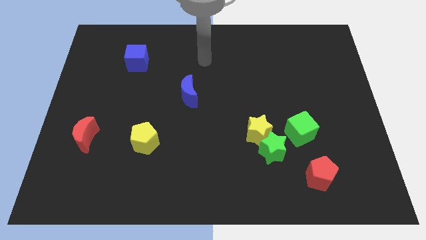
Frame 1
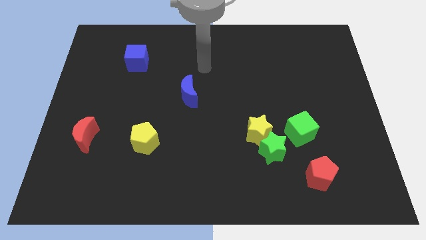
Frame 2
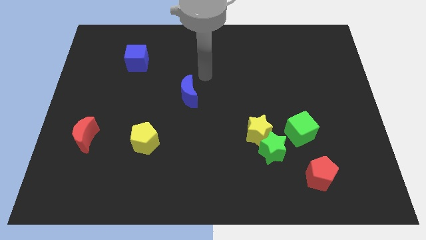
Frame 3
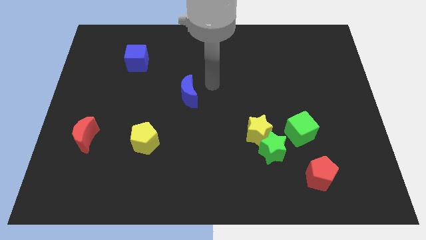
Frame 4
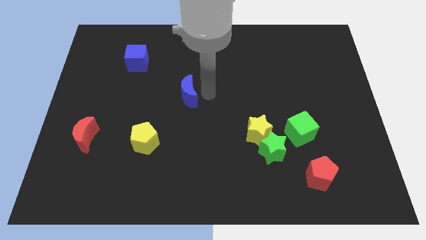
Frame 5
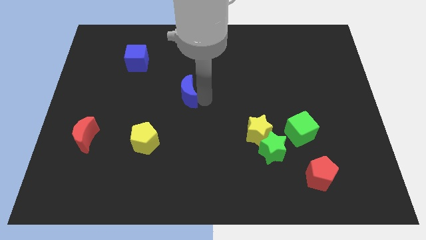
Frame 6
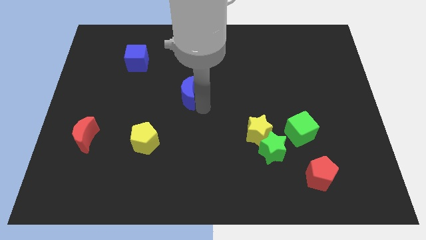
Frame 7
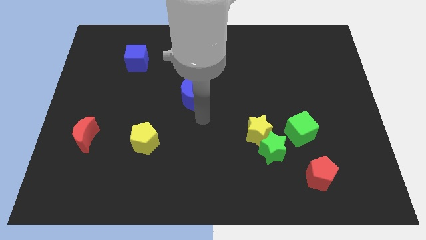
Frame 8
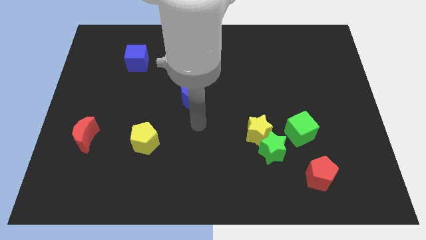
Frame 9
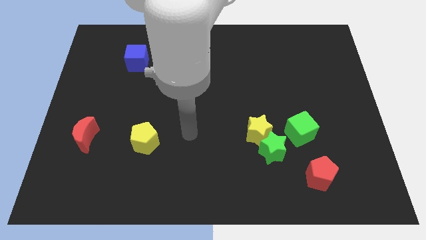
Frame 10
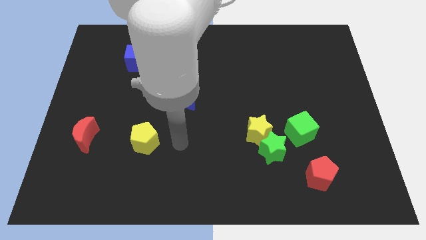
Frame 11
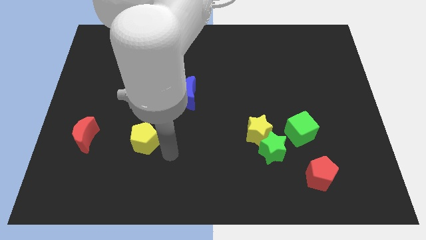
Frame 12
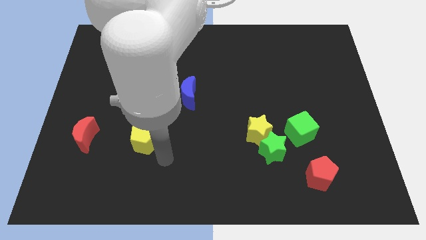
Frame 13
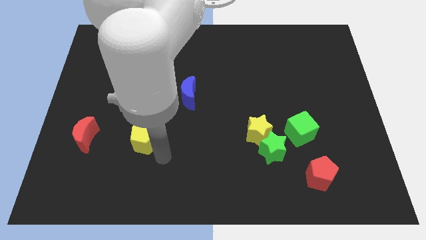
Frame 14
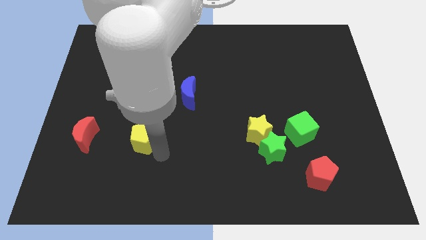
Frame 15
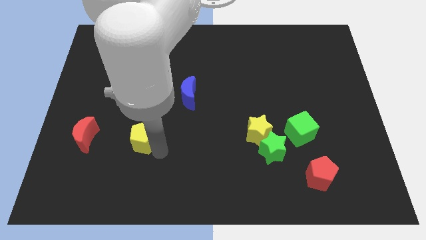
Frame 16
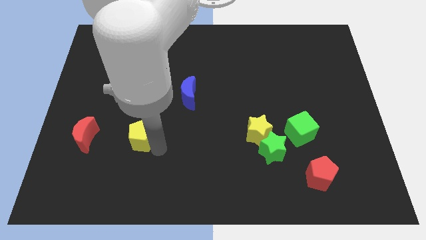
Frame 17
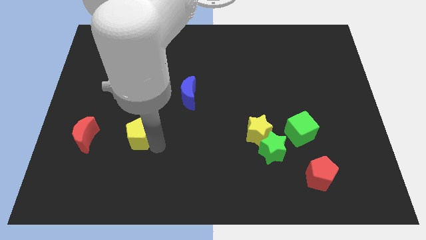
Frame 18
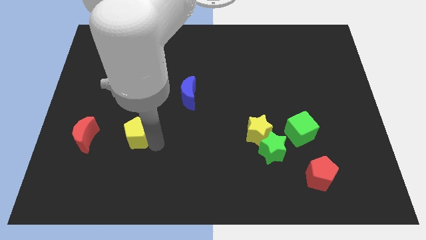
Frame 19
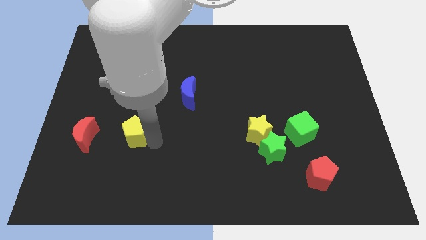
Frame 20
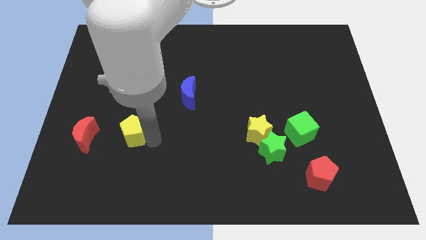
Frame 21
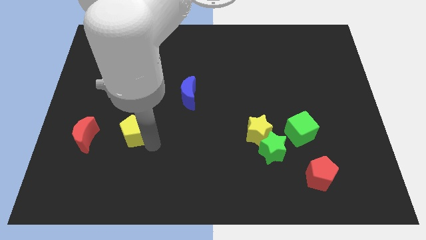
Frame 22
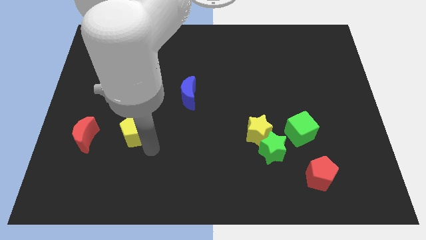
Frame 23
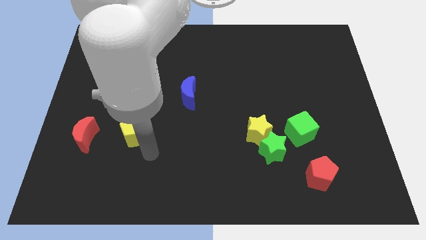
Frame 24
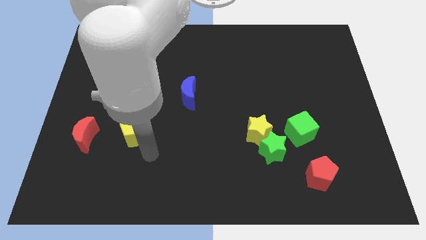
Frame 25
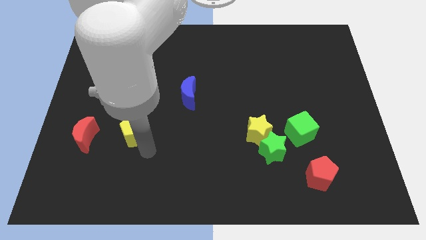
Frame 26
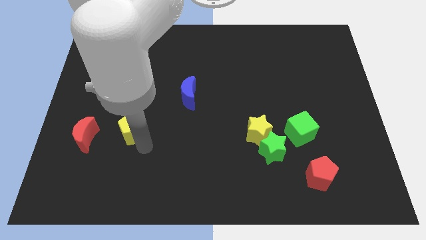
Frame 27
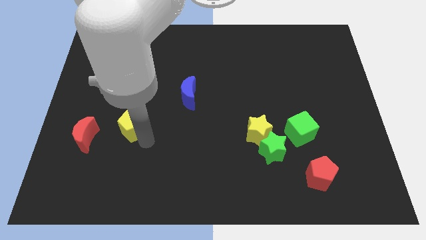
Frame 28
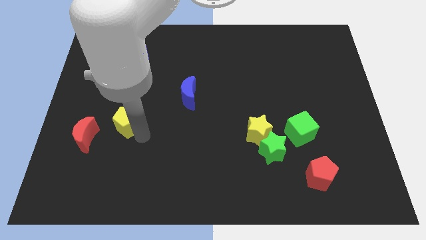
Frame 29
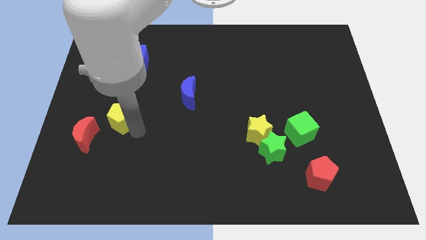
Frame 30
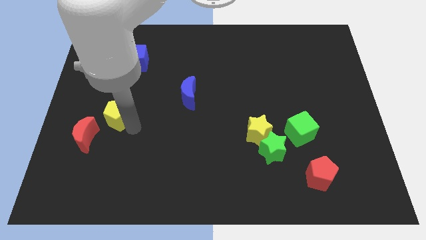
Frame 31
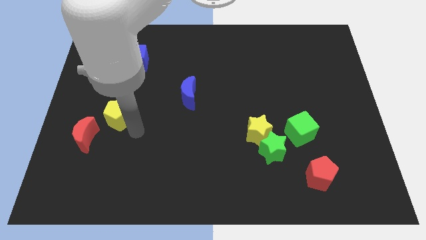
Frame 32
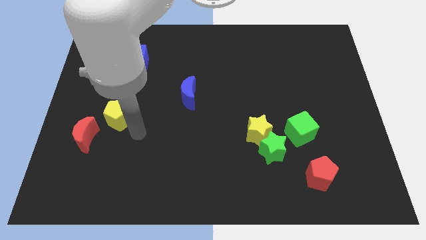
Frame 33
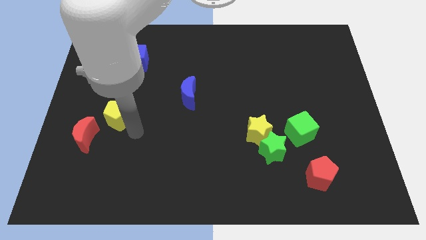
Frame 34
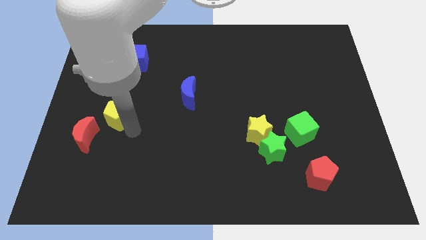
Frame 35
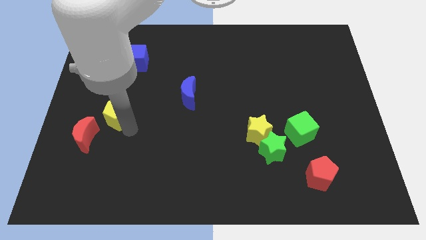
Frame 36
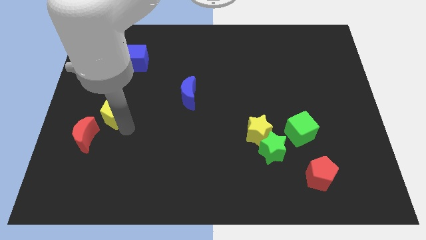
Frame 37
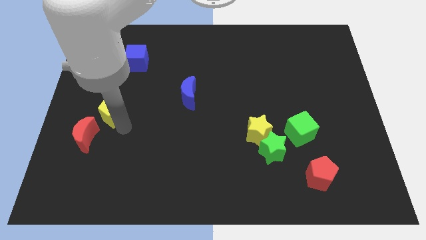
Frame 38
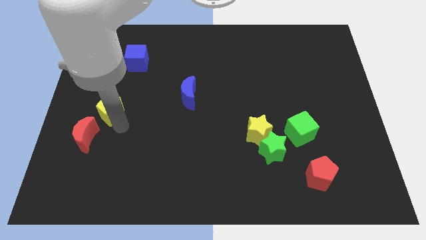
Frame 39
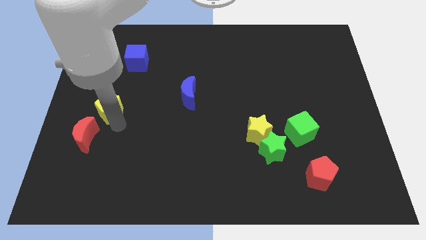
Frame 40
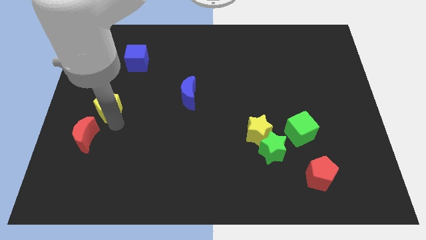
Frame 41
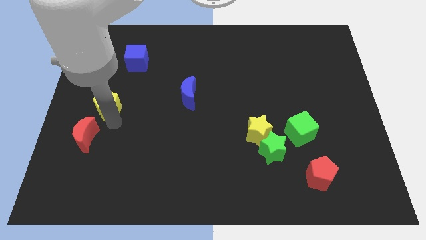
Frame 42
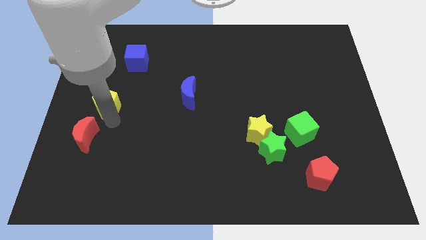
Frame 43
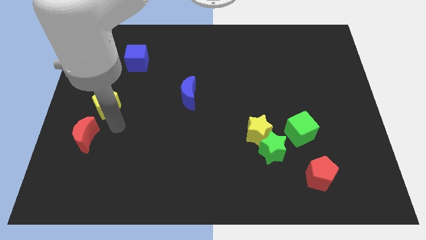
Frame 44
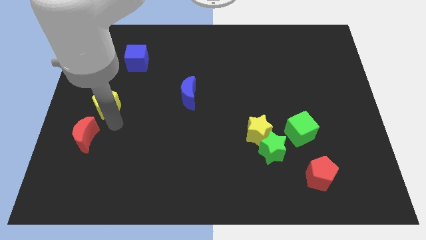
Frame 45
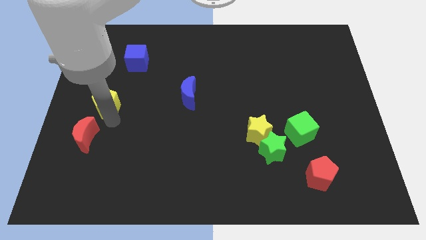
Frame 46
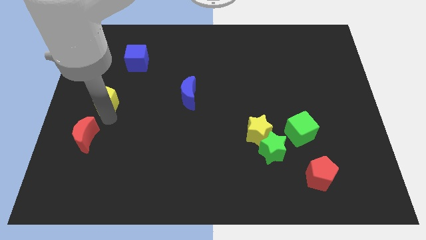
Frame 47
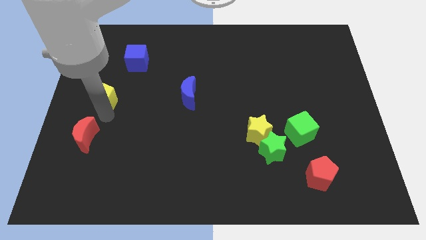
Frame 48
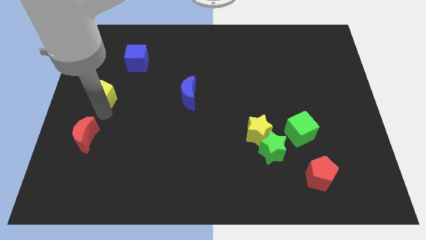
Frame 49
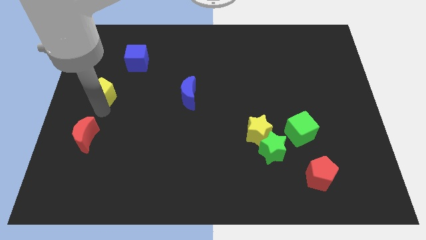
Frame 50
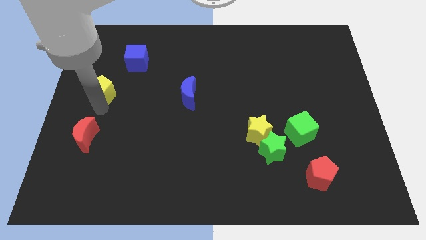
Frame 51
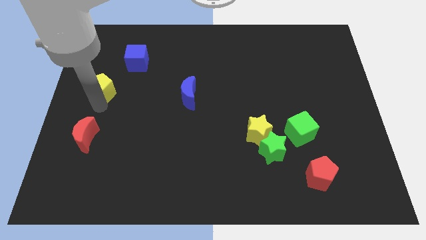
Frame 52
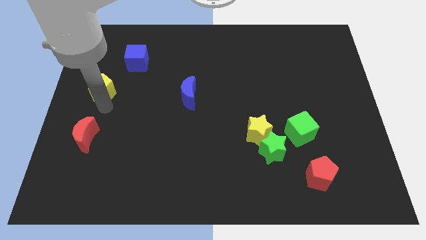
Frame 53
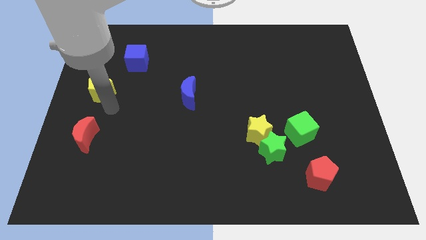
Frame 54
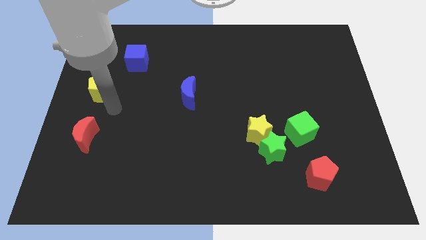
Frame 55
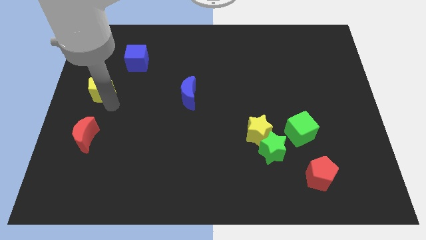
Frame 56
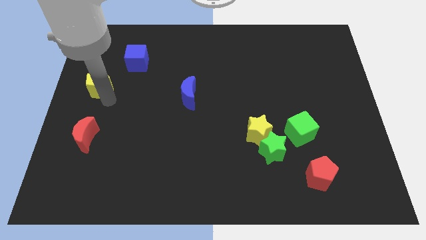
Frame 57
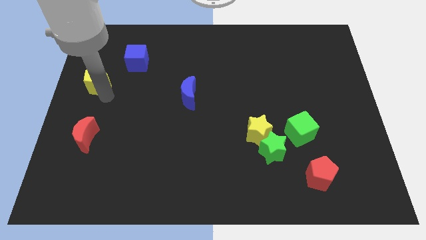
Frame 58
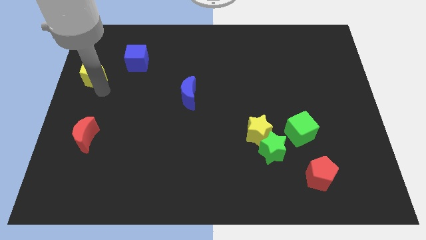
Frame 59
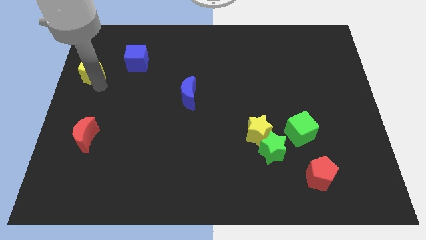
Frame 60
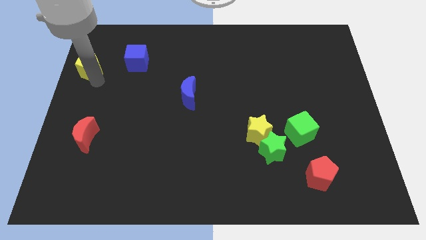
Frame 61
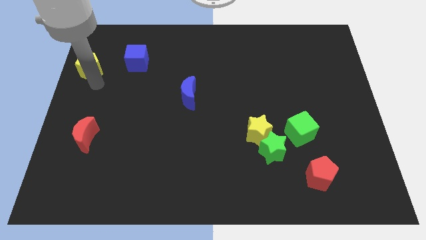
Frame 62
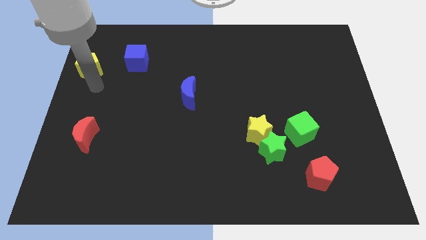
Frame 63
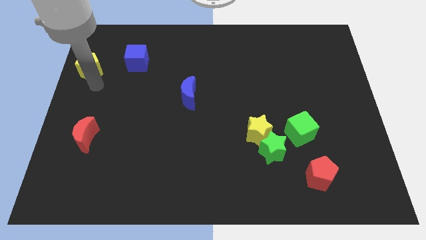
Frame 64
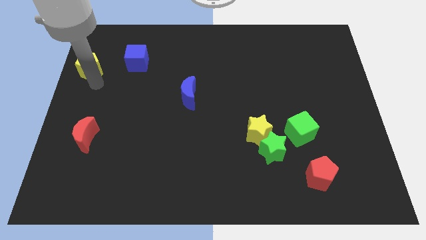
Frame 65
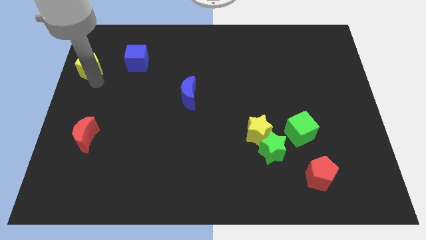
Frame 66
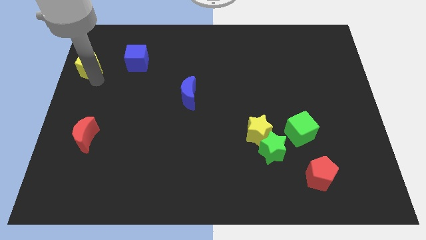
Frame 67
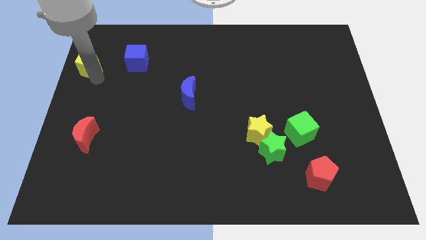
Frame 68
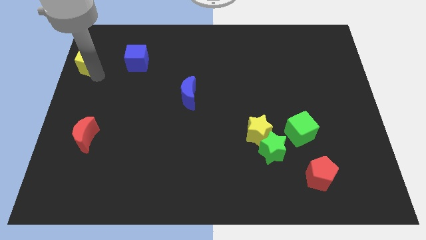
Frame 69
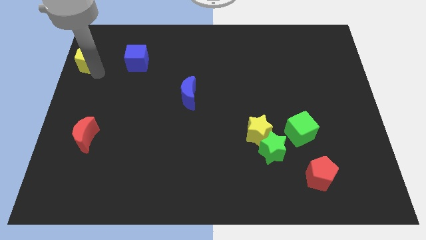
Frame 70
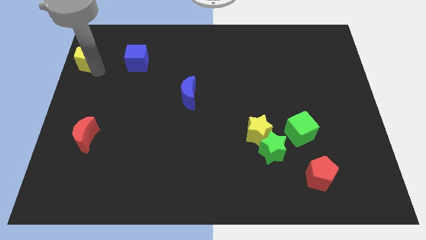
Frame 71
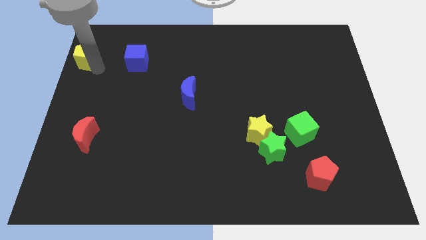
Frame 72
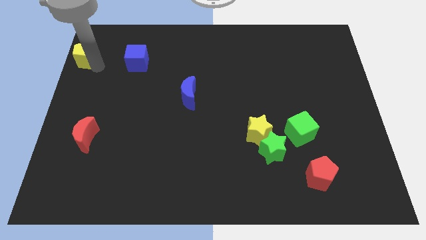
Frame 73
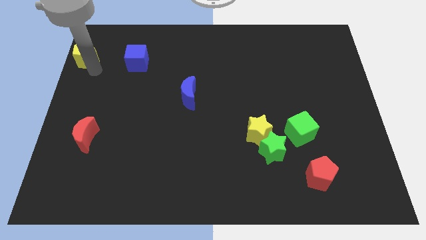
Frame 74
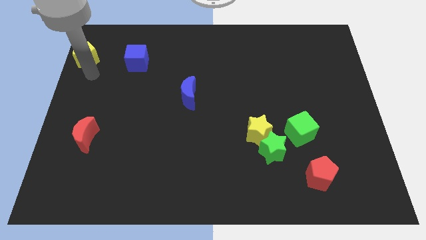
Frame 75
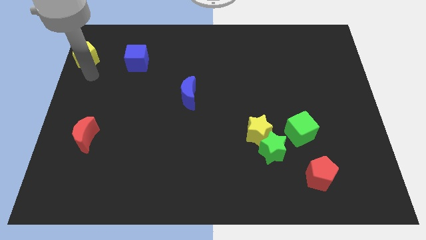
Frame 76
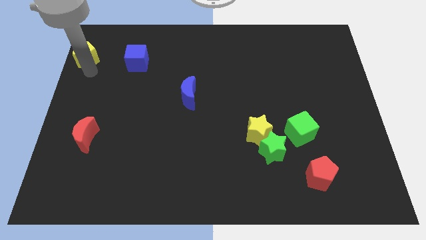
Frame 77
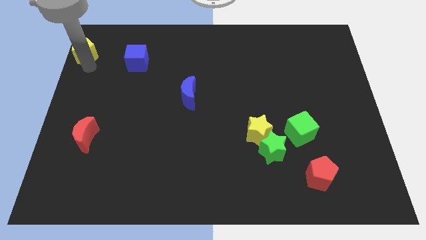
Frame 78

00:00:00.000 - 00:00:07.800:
put the yellow pentagon to the top left of the board

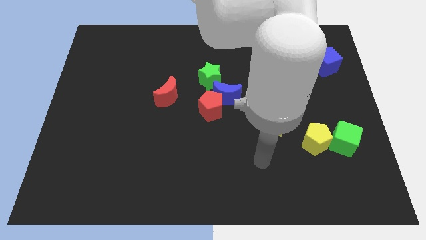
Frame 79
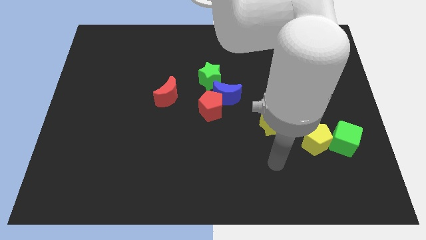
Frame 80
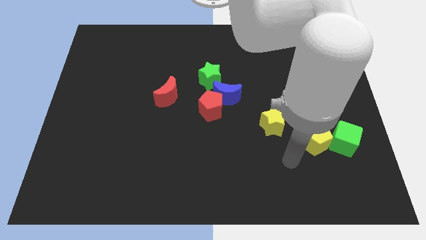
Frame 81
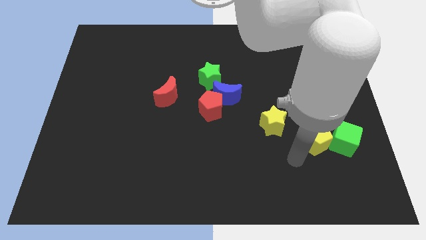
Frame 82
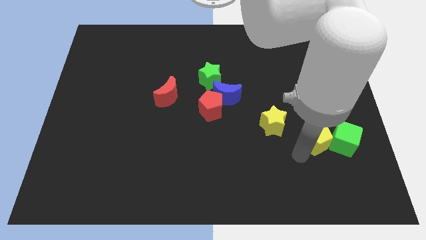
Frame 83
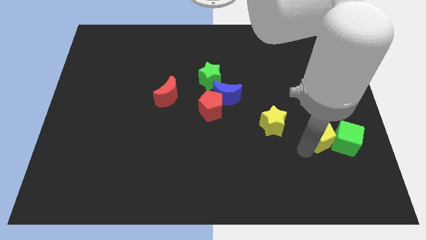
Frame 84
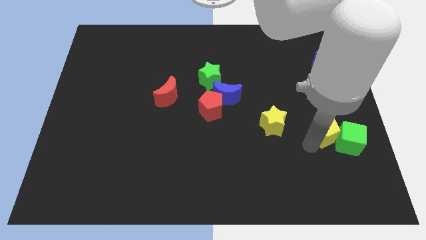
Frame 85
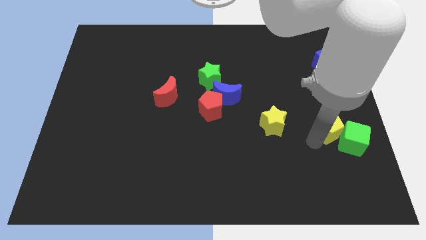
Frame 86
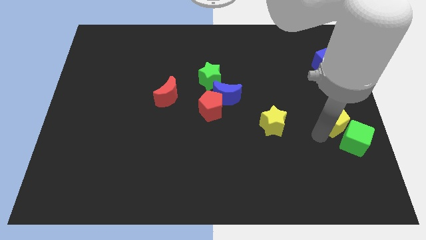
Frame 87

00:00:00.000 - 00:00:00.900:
put the yellow pentagon to the center right
